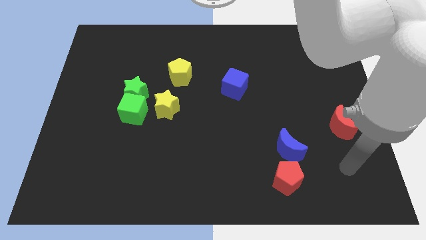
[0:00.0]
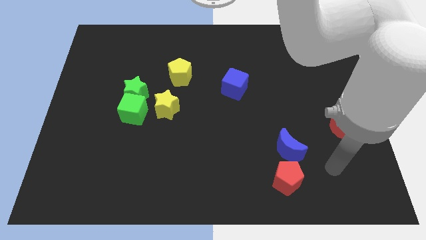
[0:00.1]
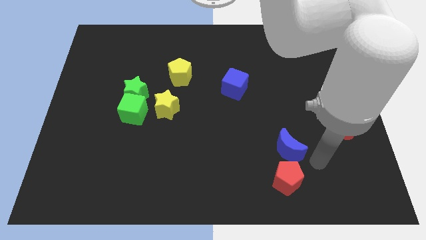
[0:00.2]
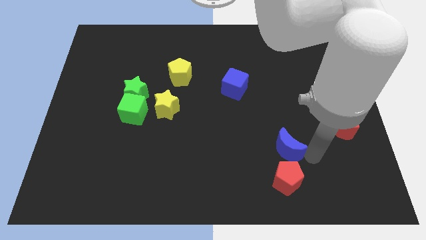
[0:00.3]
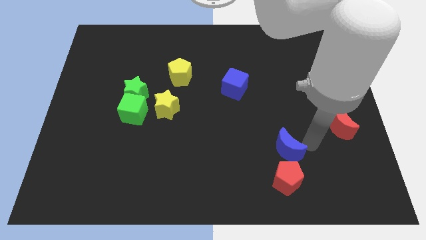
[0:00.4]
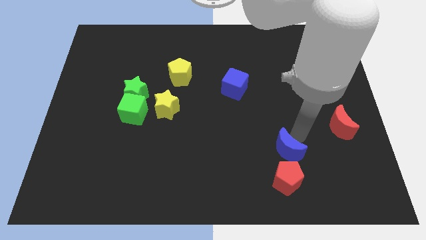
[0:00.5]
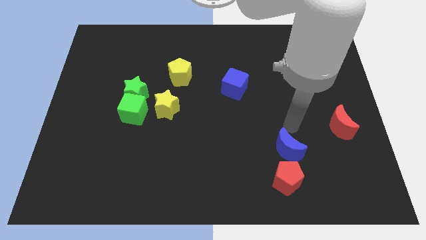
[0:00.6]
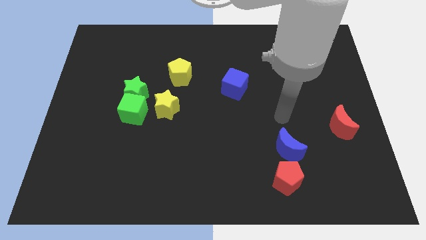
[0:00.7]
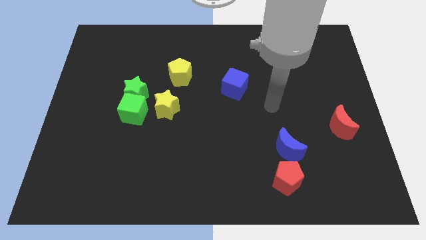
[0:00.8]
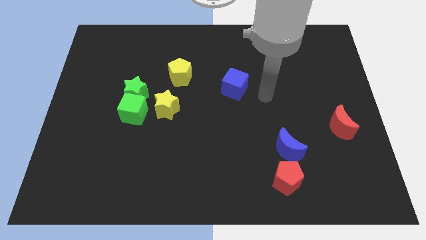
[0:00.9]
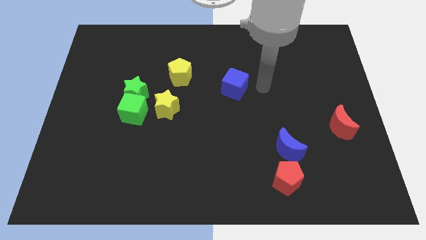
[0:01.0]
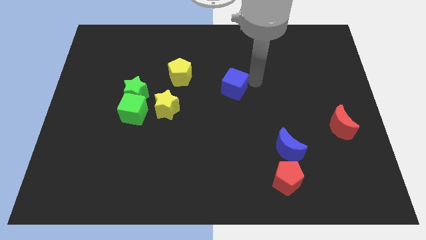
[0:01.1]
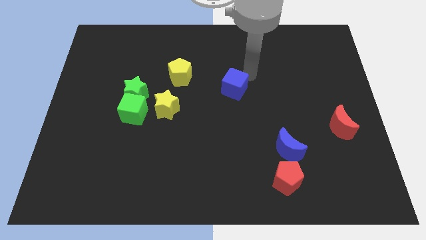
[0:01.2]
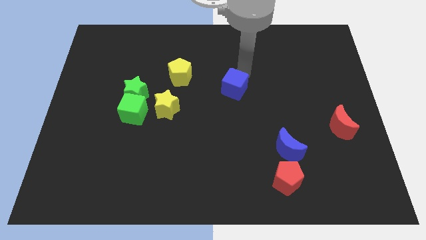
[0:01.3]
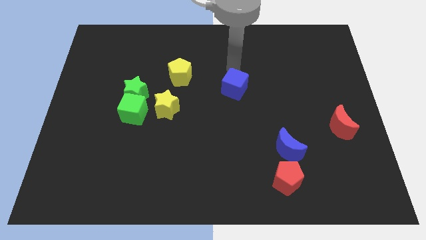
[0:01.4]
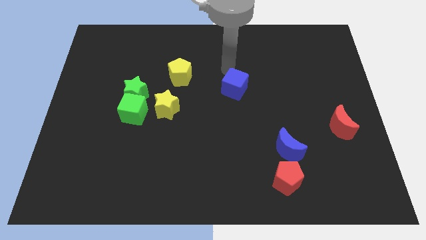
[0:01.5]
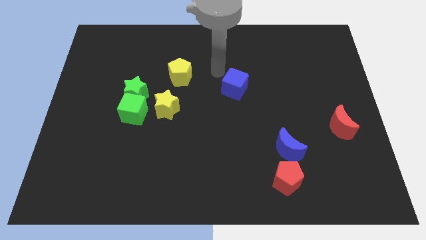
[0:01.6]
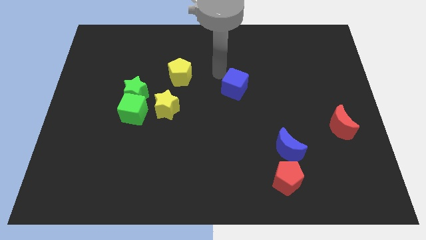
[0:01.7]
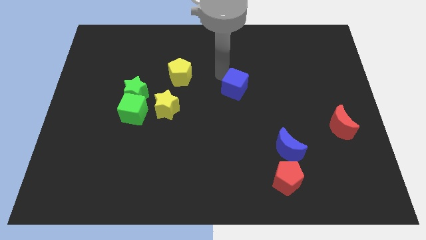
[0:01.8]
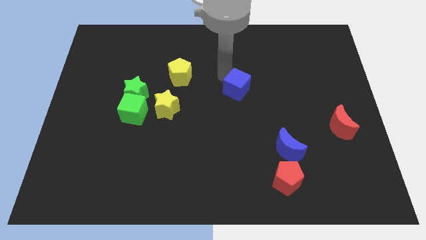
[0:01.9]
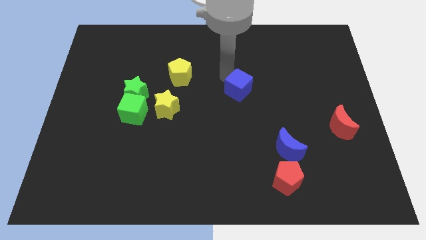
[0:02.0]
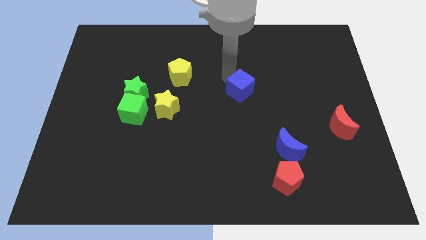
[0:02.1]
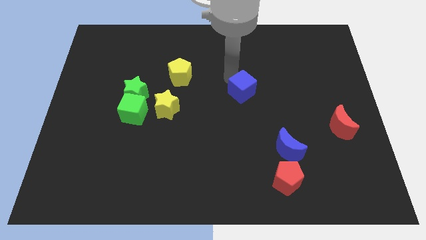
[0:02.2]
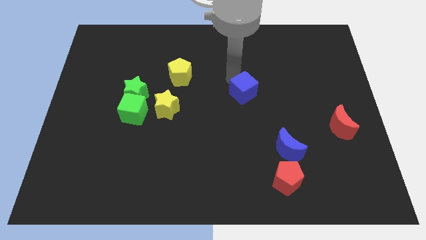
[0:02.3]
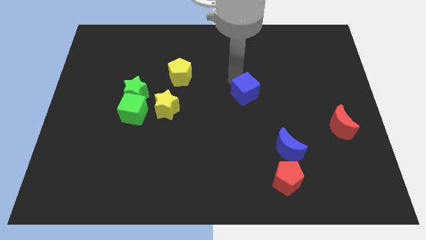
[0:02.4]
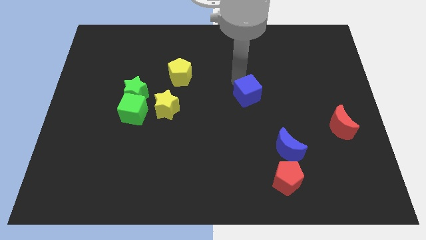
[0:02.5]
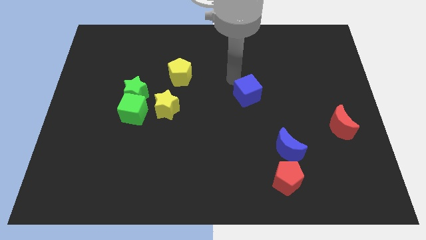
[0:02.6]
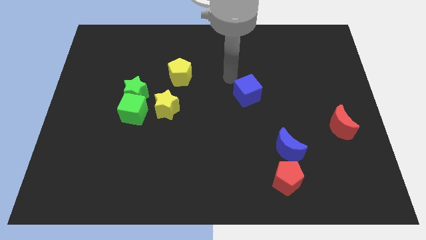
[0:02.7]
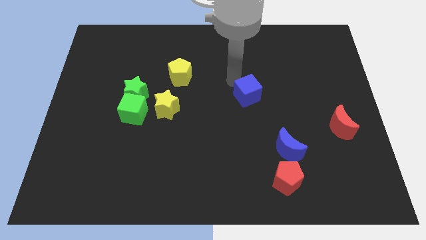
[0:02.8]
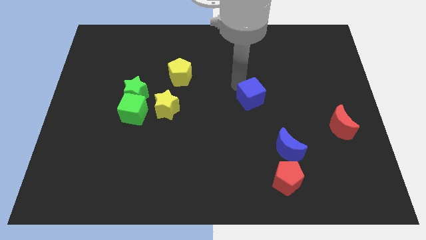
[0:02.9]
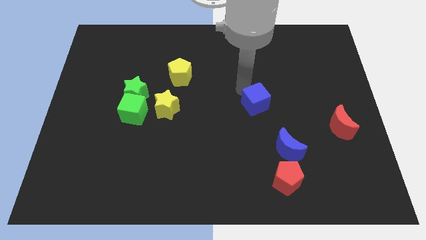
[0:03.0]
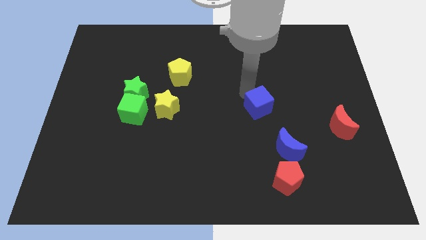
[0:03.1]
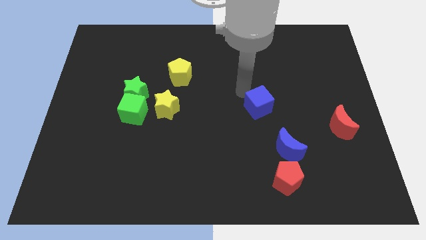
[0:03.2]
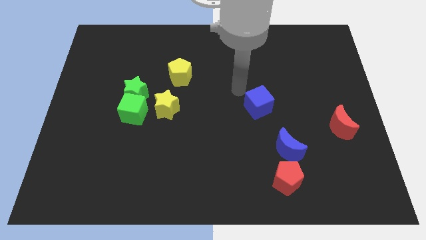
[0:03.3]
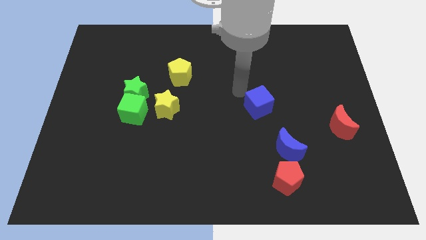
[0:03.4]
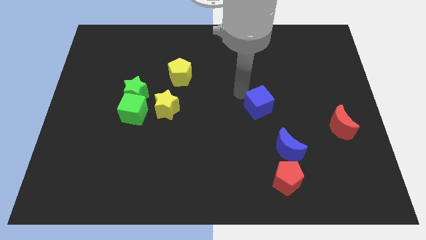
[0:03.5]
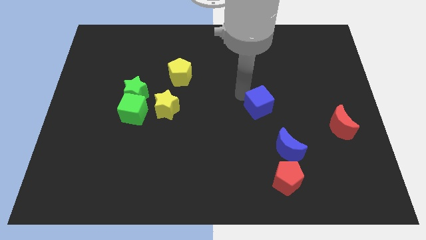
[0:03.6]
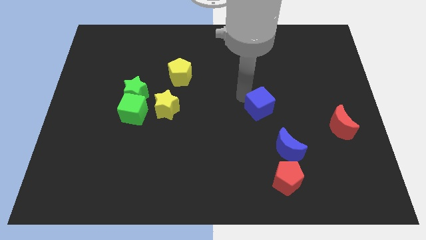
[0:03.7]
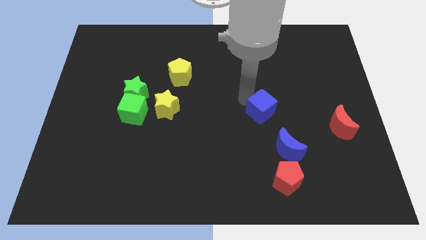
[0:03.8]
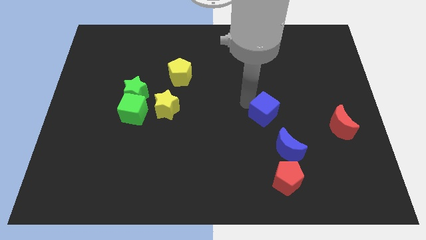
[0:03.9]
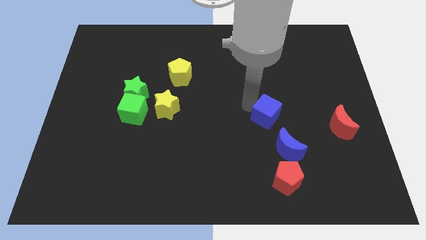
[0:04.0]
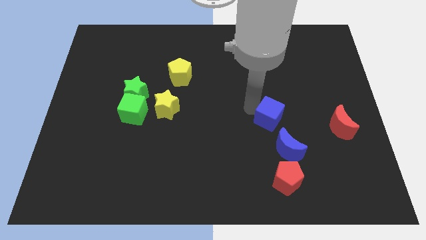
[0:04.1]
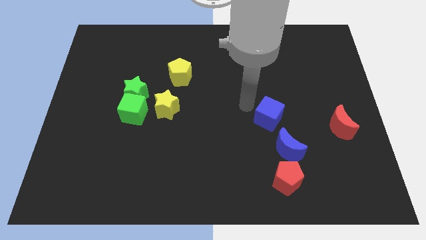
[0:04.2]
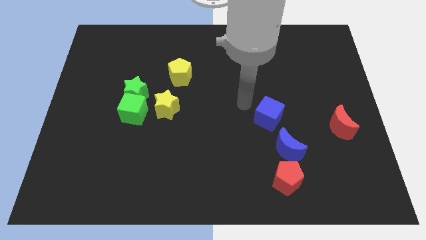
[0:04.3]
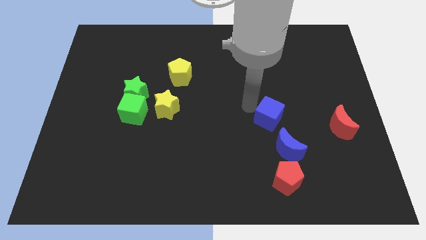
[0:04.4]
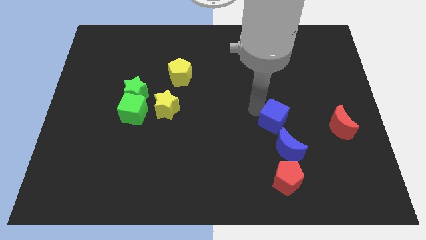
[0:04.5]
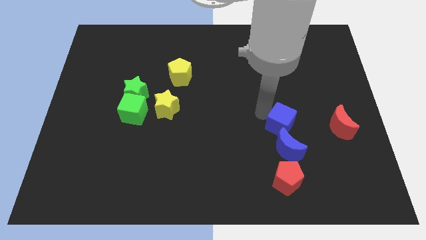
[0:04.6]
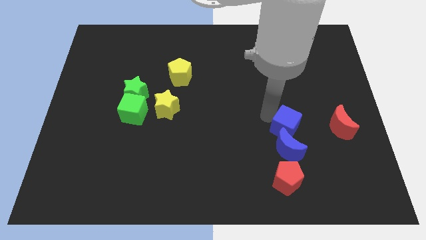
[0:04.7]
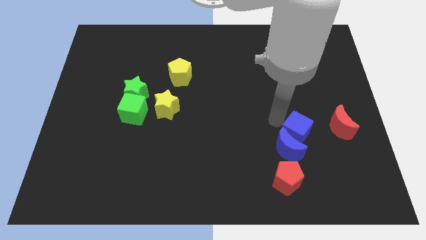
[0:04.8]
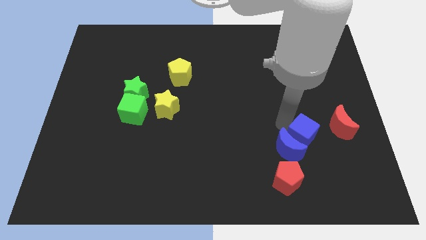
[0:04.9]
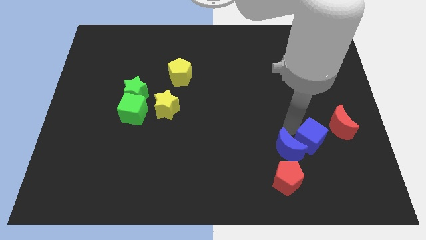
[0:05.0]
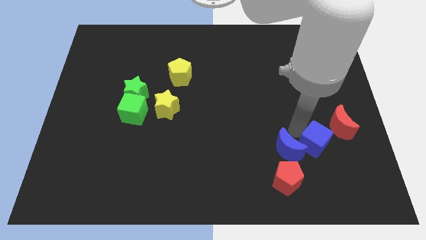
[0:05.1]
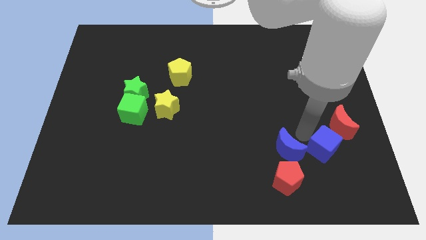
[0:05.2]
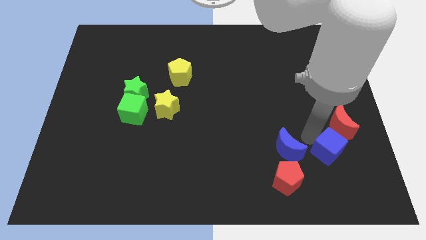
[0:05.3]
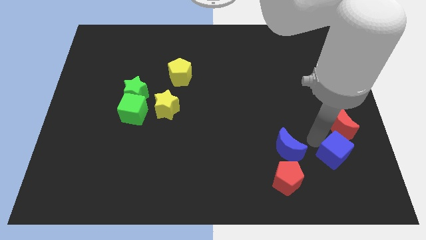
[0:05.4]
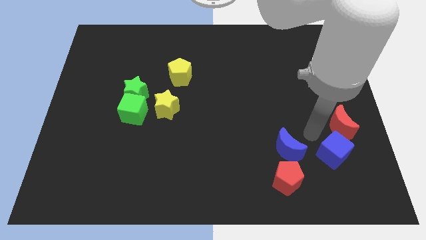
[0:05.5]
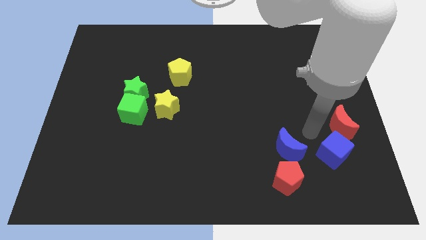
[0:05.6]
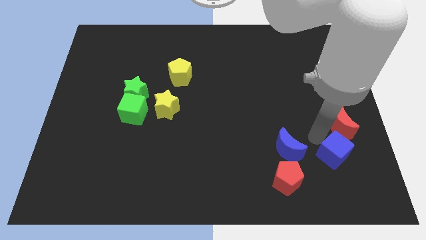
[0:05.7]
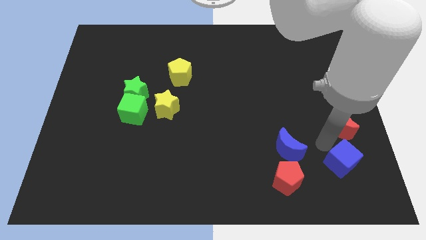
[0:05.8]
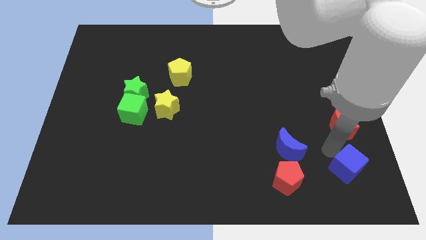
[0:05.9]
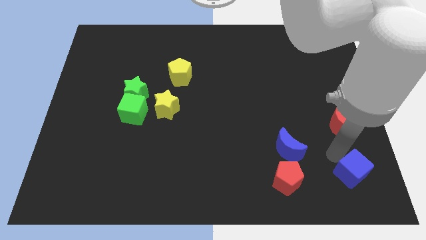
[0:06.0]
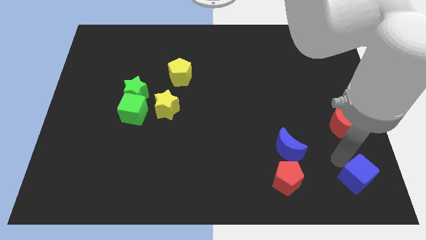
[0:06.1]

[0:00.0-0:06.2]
move the blue cube to the bottom right corner

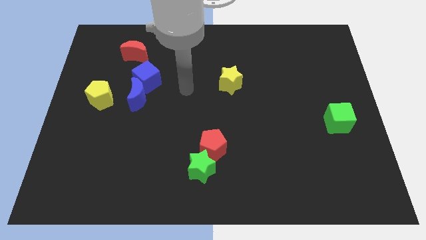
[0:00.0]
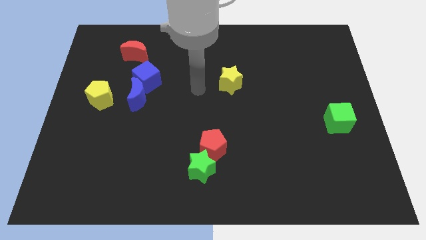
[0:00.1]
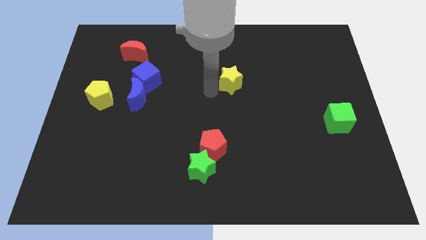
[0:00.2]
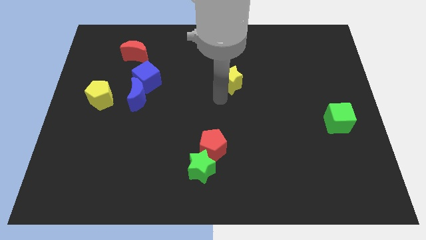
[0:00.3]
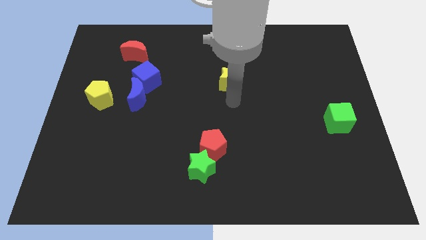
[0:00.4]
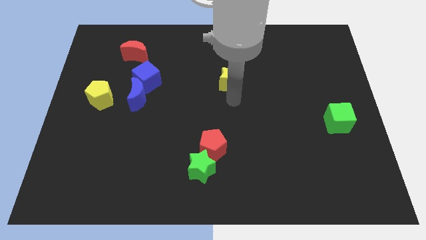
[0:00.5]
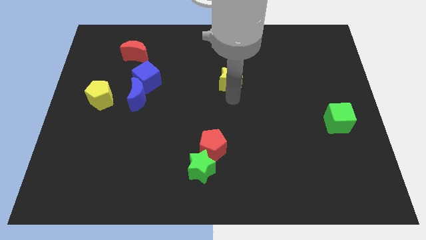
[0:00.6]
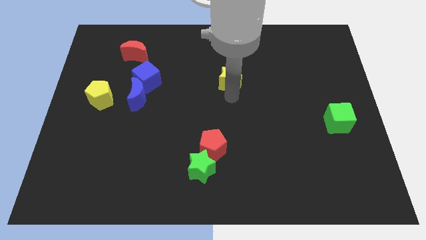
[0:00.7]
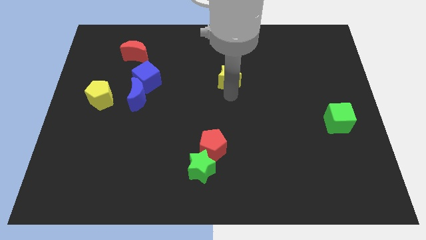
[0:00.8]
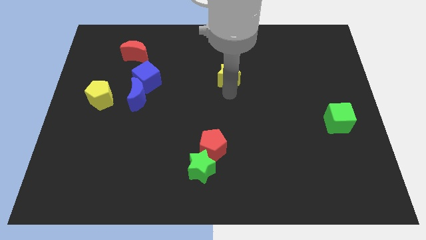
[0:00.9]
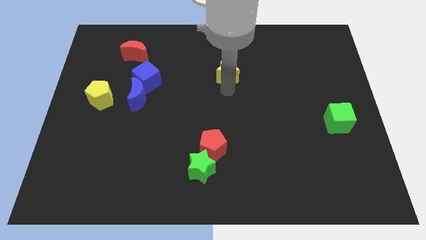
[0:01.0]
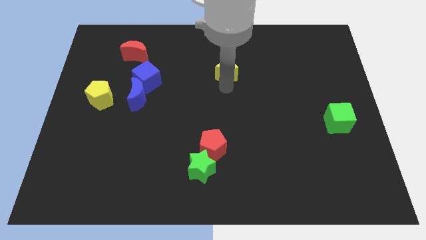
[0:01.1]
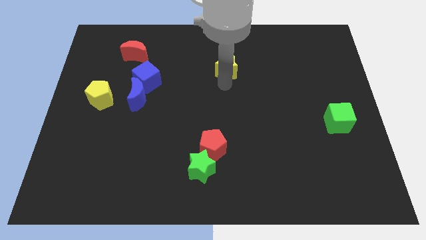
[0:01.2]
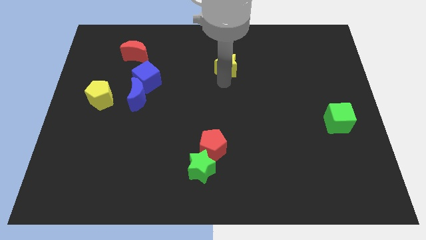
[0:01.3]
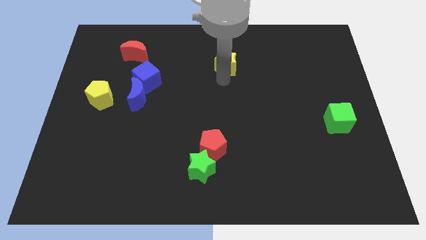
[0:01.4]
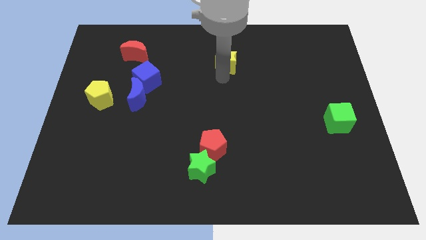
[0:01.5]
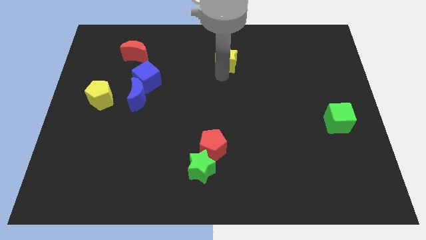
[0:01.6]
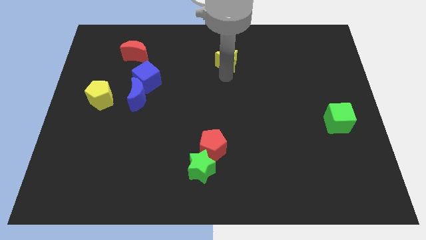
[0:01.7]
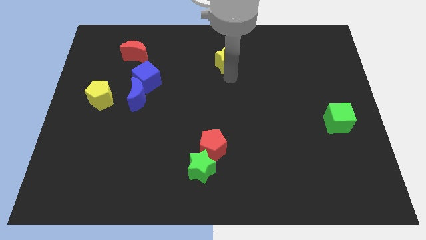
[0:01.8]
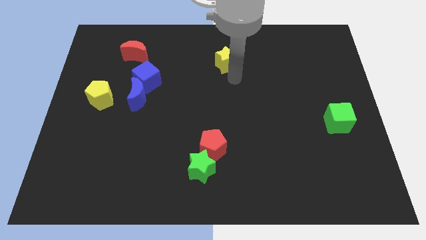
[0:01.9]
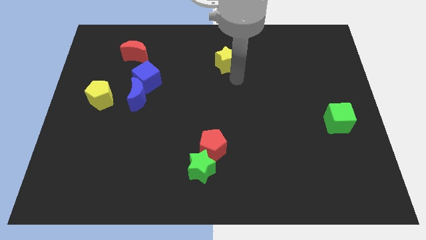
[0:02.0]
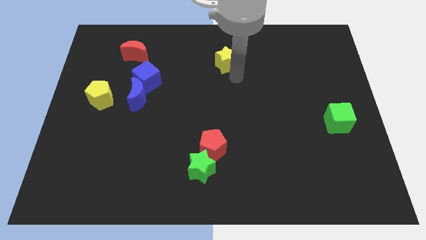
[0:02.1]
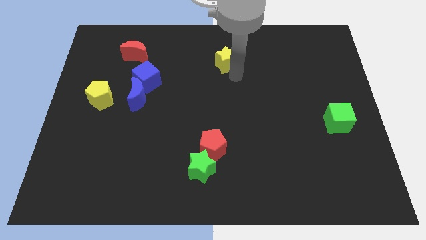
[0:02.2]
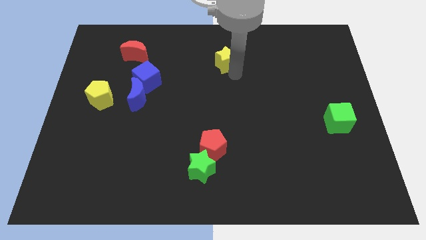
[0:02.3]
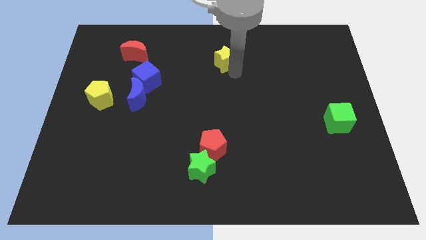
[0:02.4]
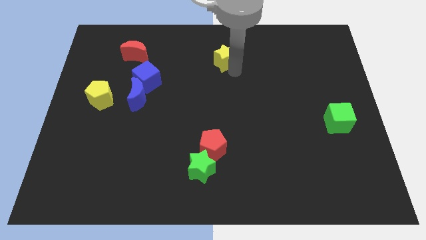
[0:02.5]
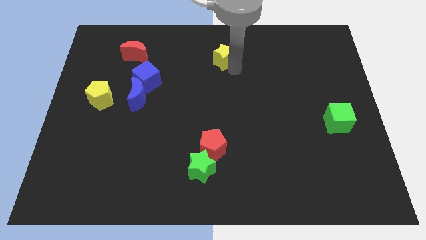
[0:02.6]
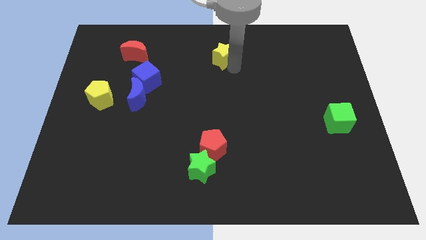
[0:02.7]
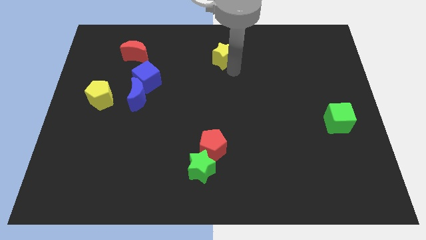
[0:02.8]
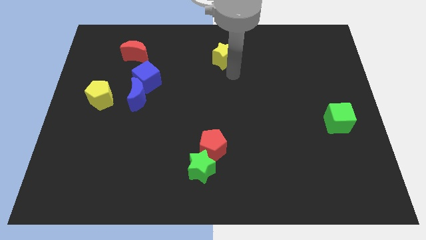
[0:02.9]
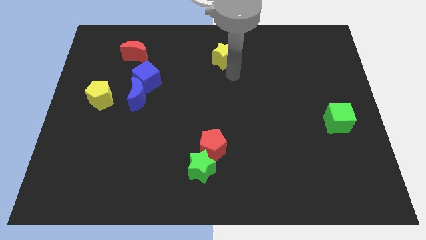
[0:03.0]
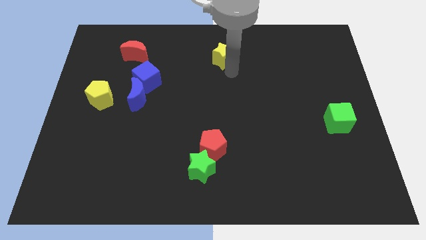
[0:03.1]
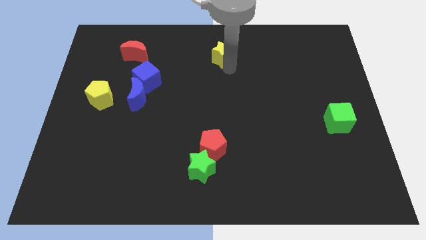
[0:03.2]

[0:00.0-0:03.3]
move the yellow star to the towards your base
